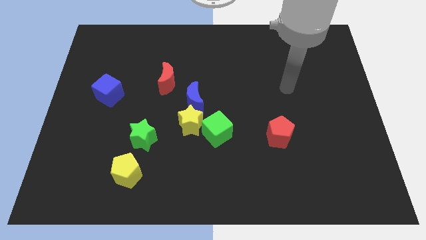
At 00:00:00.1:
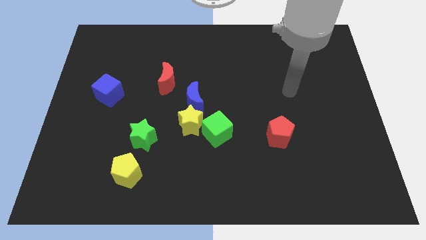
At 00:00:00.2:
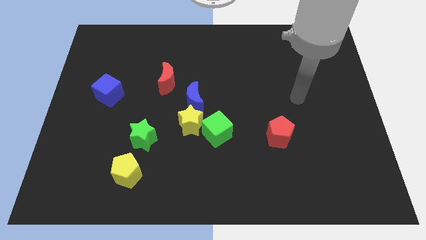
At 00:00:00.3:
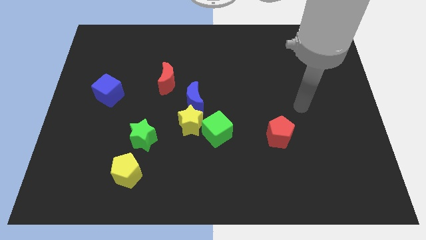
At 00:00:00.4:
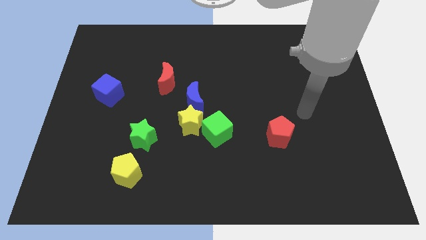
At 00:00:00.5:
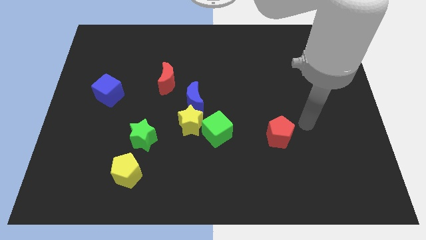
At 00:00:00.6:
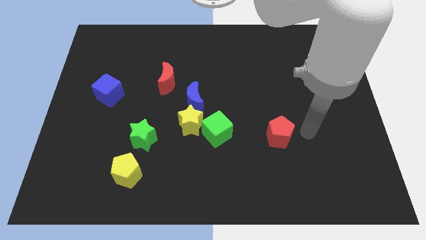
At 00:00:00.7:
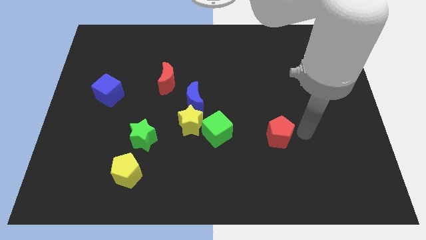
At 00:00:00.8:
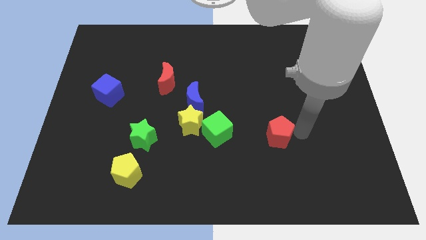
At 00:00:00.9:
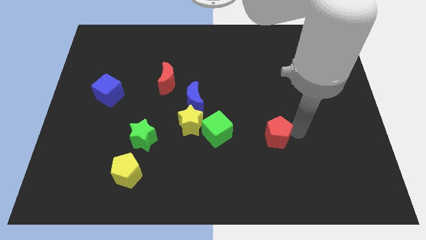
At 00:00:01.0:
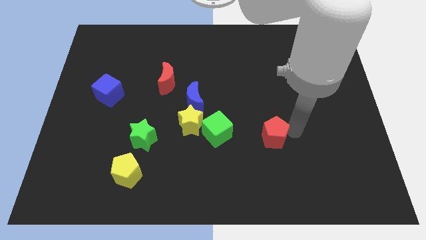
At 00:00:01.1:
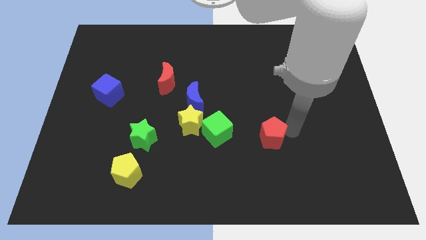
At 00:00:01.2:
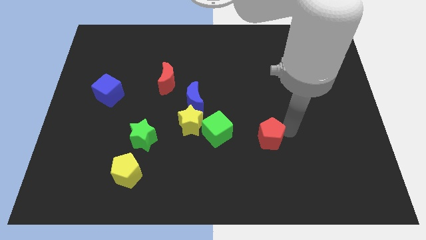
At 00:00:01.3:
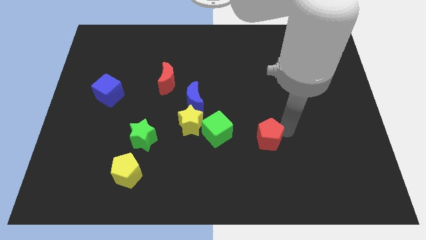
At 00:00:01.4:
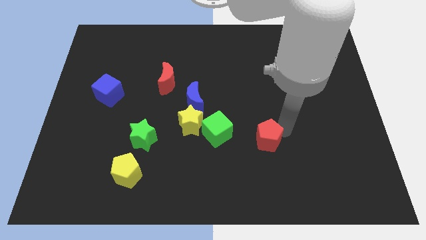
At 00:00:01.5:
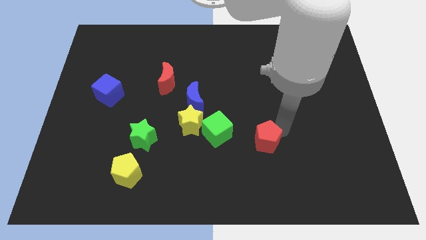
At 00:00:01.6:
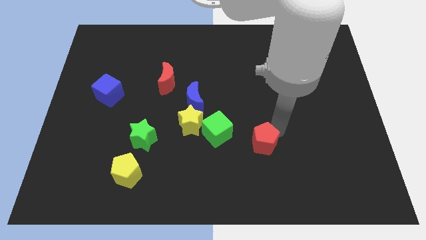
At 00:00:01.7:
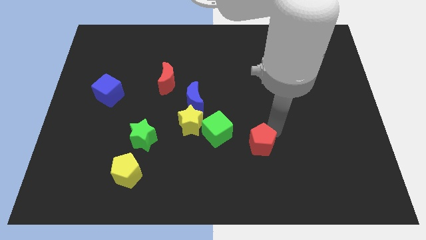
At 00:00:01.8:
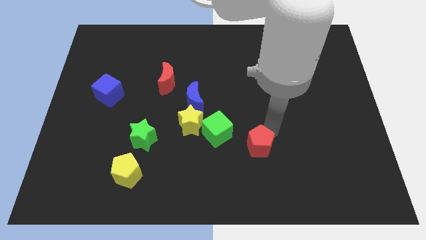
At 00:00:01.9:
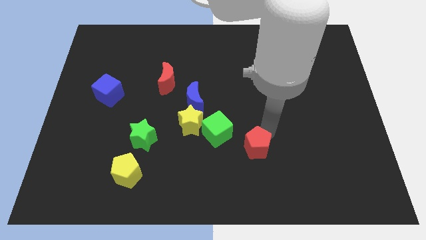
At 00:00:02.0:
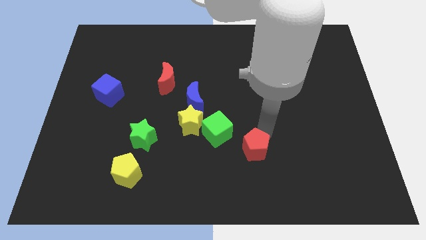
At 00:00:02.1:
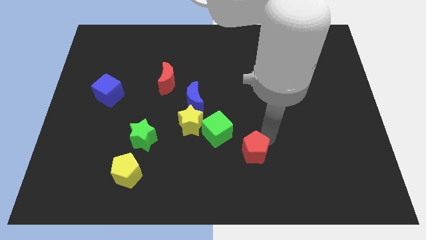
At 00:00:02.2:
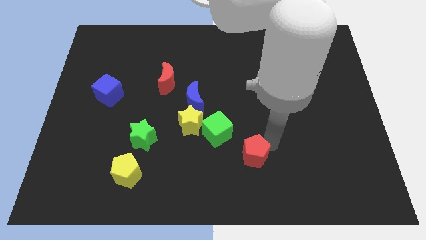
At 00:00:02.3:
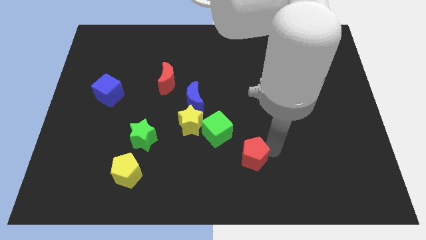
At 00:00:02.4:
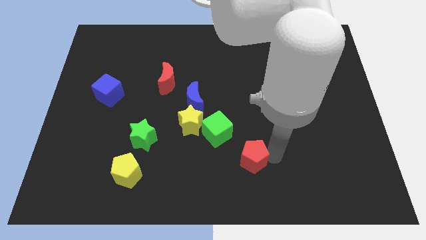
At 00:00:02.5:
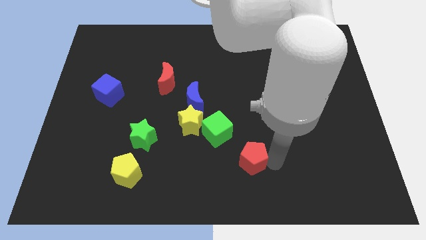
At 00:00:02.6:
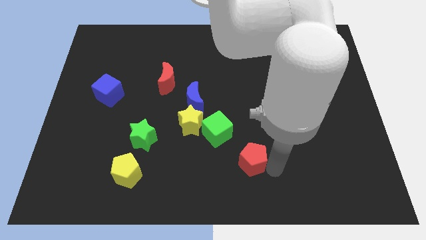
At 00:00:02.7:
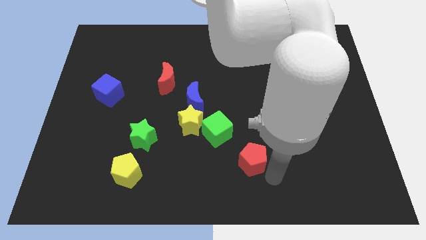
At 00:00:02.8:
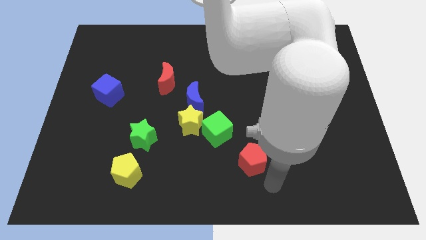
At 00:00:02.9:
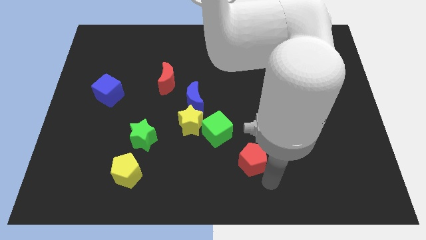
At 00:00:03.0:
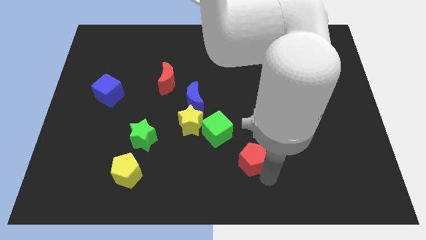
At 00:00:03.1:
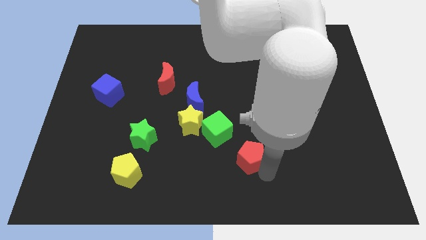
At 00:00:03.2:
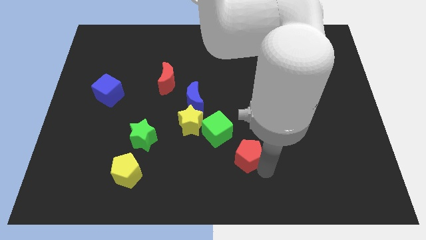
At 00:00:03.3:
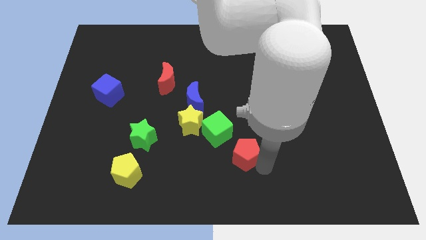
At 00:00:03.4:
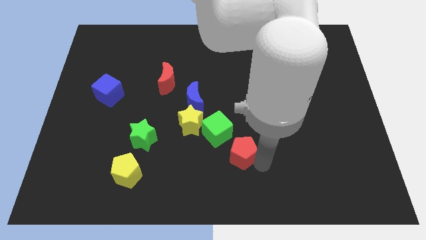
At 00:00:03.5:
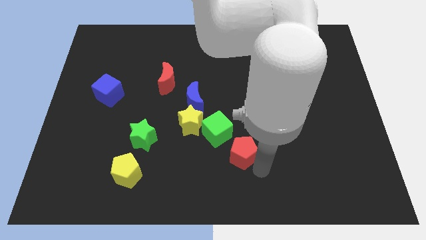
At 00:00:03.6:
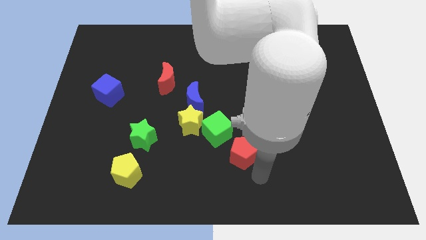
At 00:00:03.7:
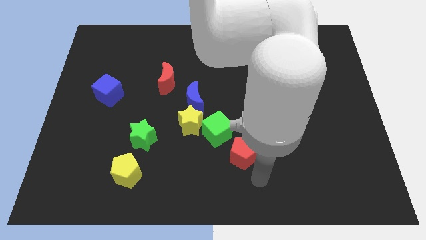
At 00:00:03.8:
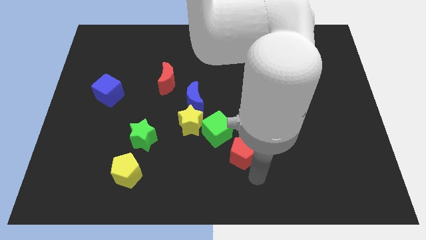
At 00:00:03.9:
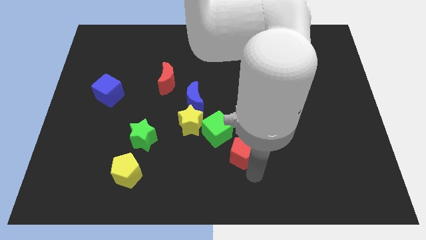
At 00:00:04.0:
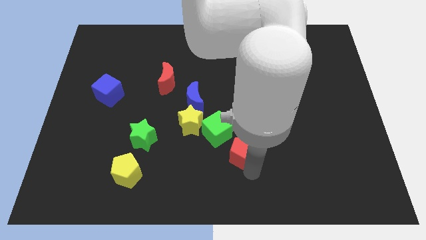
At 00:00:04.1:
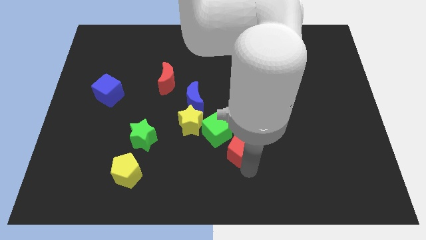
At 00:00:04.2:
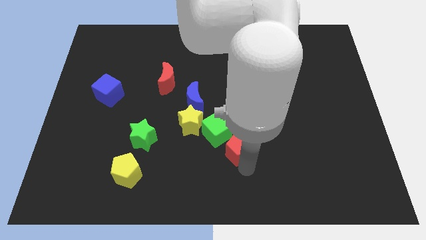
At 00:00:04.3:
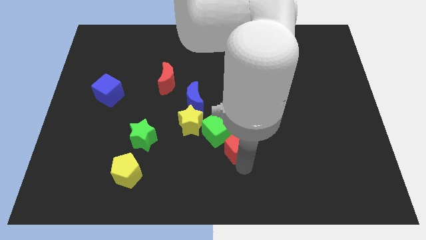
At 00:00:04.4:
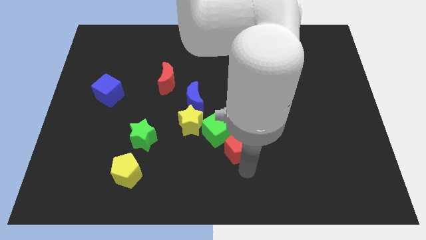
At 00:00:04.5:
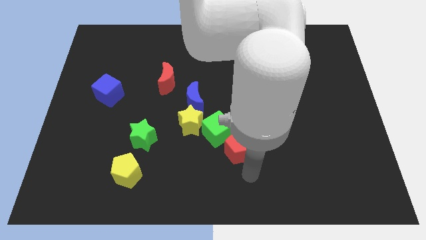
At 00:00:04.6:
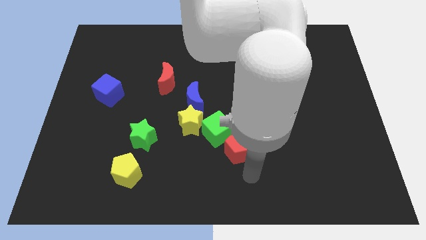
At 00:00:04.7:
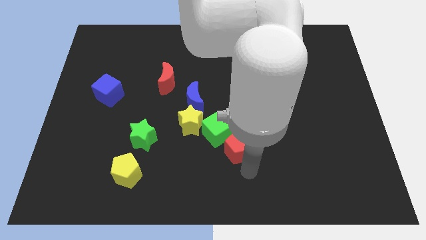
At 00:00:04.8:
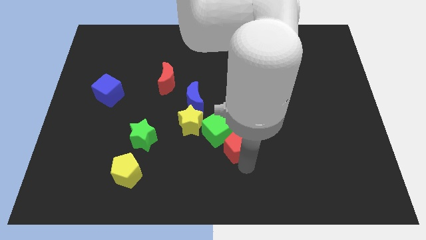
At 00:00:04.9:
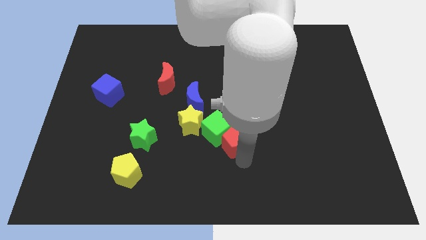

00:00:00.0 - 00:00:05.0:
push the red pentagon to the green cube

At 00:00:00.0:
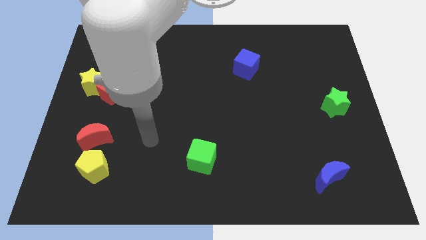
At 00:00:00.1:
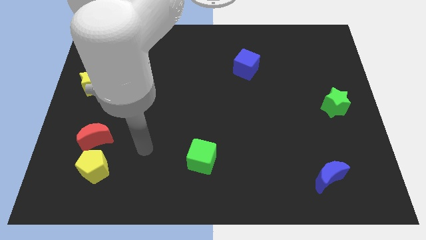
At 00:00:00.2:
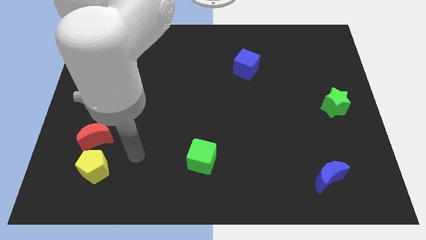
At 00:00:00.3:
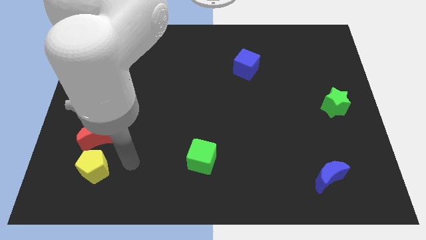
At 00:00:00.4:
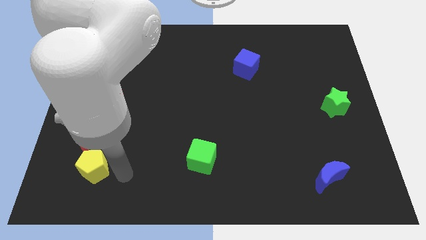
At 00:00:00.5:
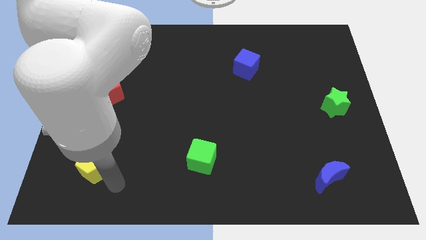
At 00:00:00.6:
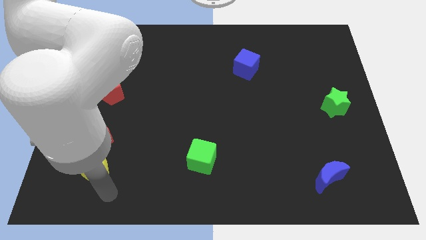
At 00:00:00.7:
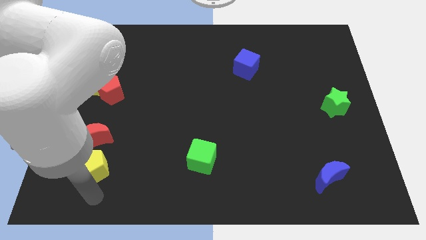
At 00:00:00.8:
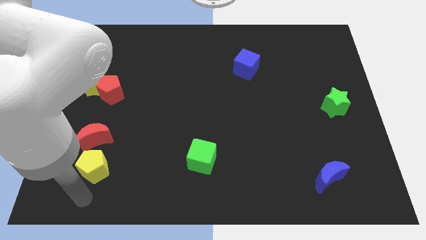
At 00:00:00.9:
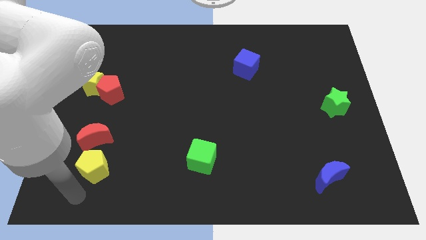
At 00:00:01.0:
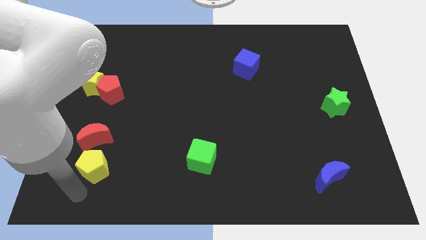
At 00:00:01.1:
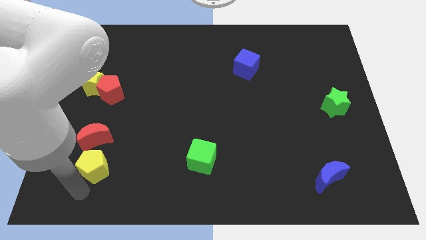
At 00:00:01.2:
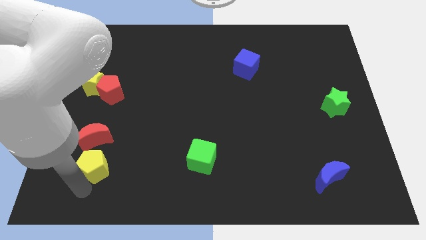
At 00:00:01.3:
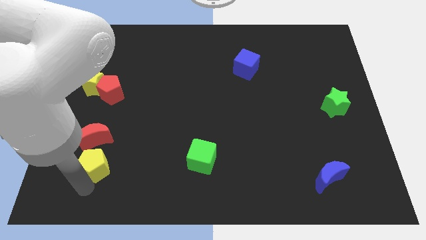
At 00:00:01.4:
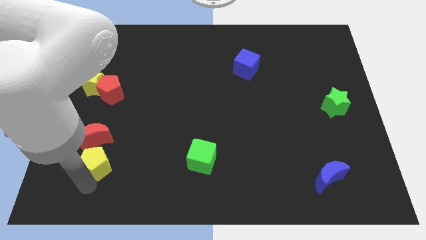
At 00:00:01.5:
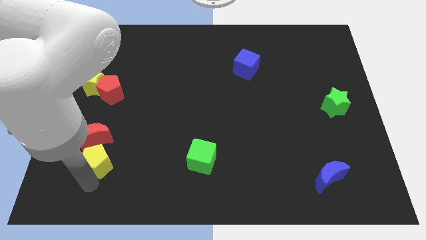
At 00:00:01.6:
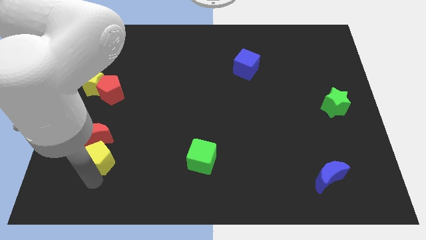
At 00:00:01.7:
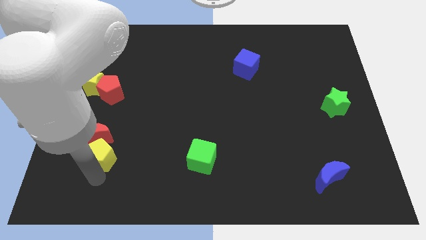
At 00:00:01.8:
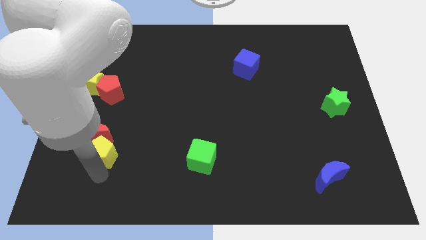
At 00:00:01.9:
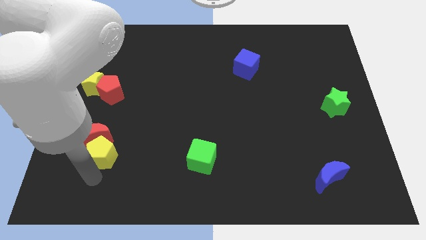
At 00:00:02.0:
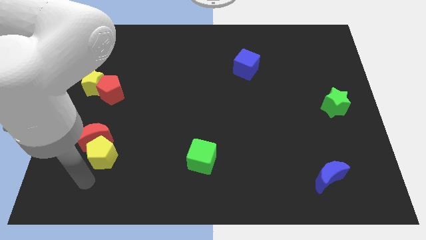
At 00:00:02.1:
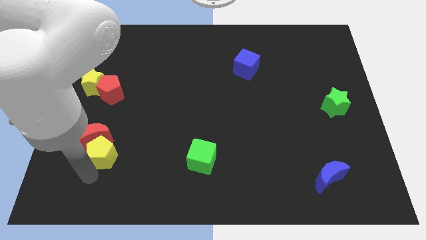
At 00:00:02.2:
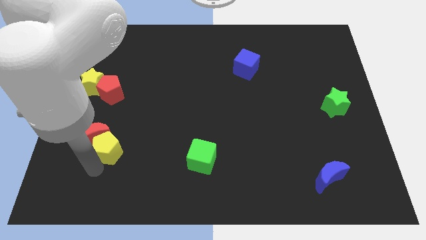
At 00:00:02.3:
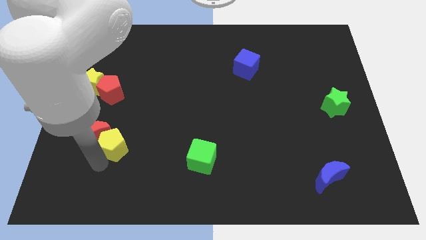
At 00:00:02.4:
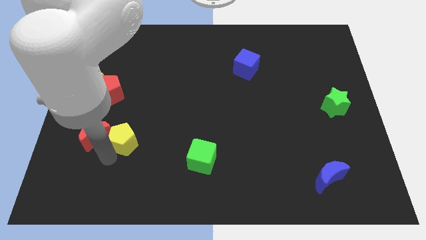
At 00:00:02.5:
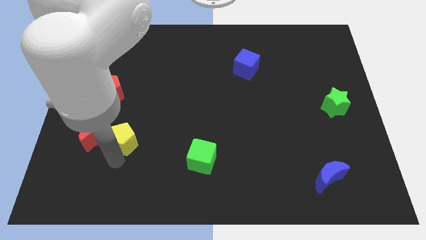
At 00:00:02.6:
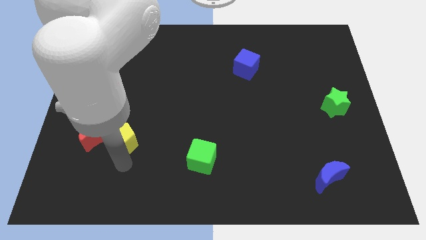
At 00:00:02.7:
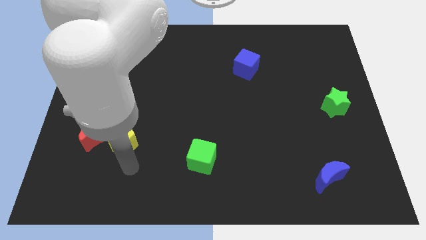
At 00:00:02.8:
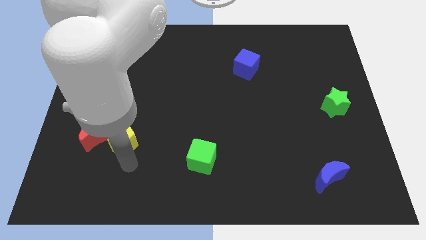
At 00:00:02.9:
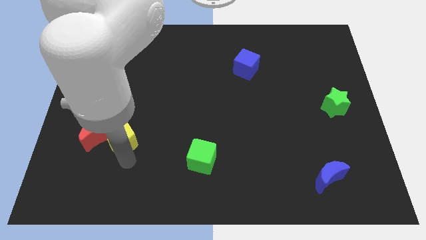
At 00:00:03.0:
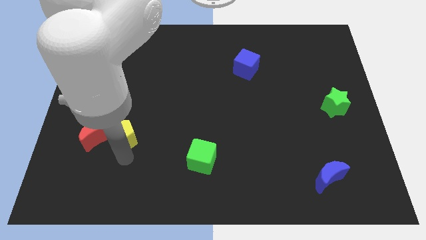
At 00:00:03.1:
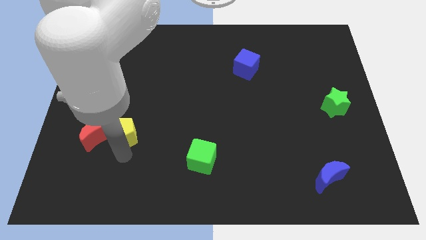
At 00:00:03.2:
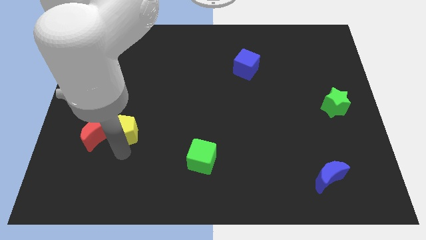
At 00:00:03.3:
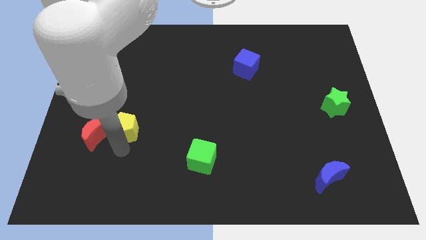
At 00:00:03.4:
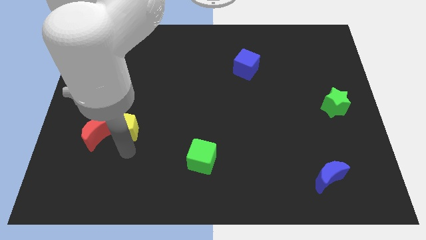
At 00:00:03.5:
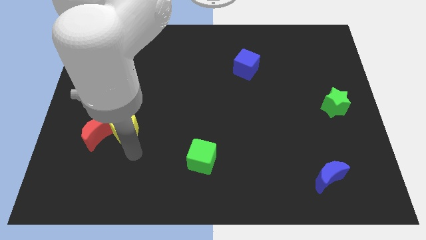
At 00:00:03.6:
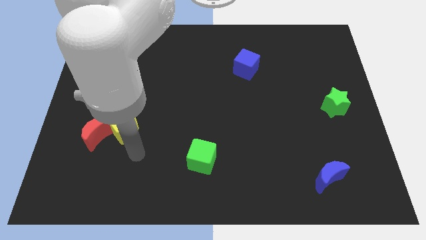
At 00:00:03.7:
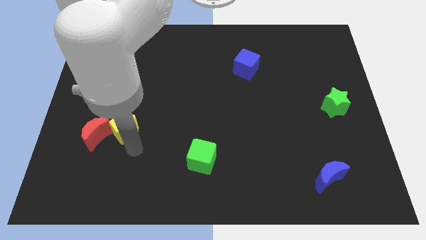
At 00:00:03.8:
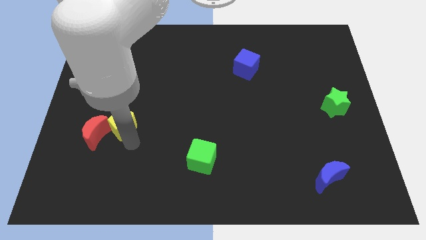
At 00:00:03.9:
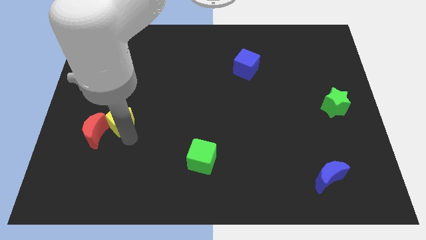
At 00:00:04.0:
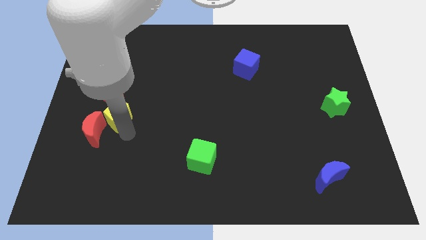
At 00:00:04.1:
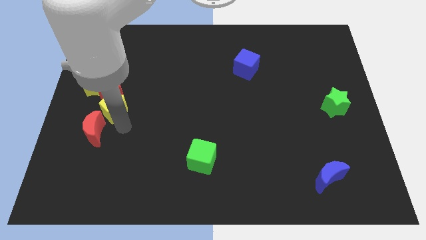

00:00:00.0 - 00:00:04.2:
put the yellow pentagon to the red pentagon
